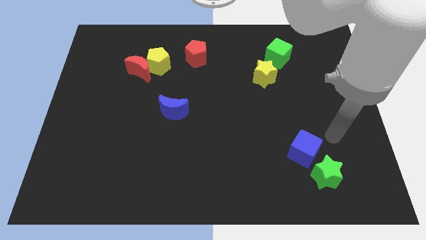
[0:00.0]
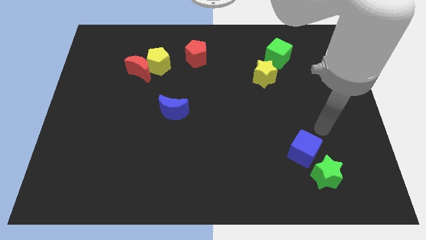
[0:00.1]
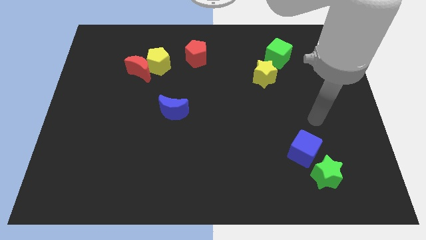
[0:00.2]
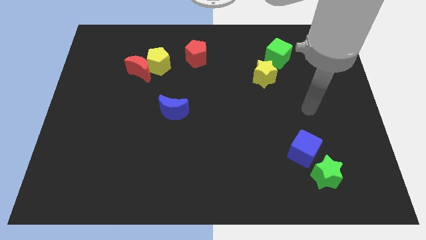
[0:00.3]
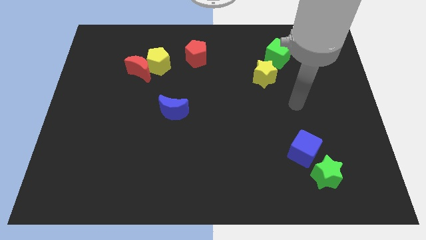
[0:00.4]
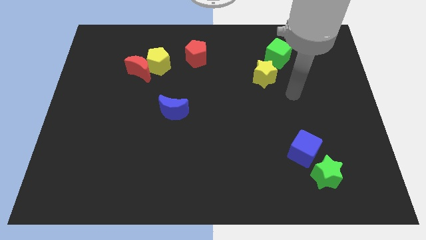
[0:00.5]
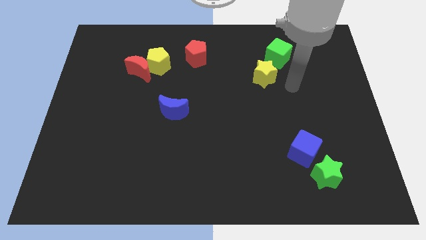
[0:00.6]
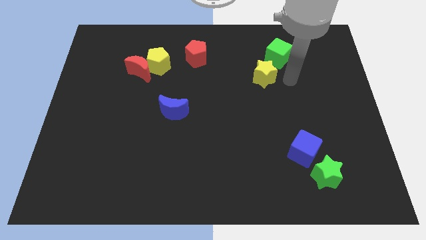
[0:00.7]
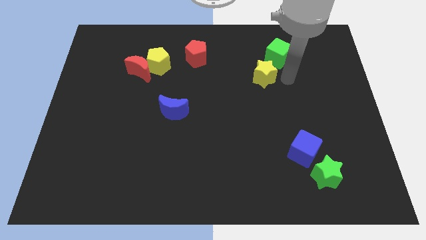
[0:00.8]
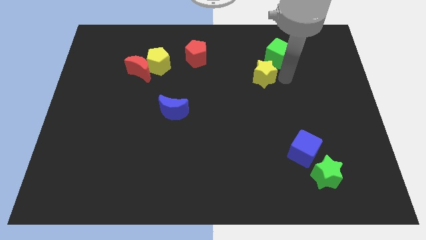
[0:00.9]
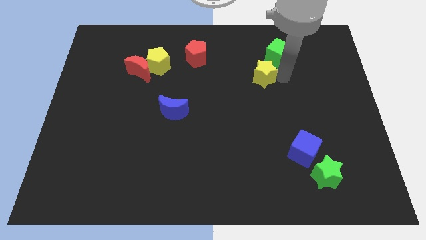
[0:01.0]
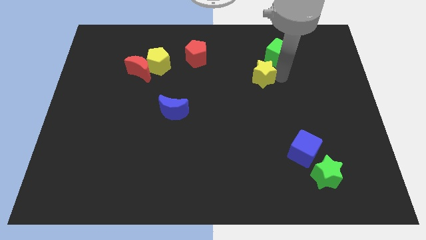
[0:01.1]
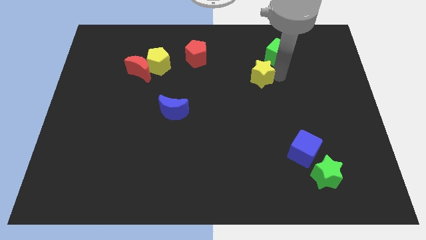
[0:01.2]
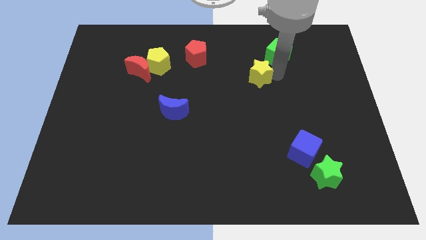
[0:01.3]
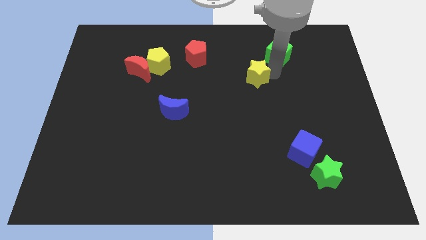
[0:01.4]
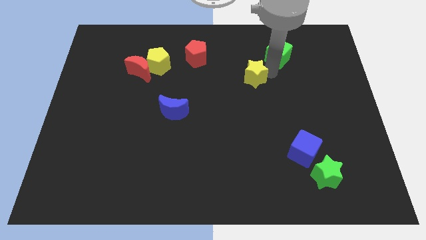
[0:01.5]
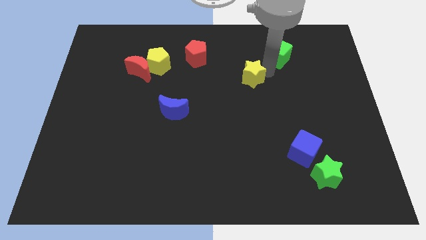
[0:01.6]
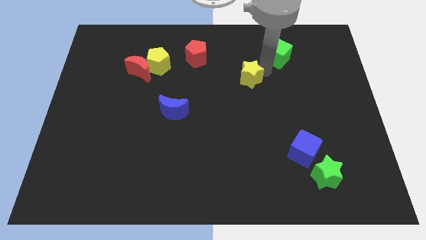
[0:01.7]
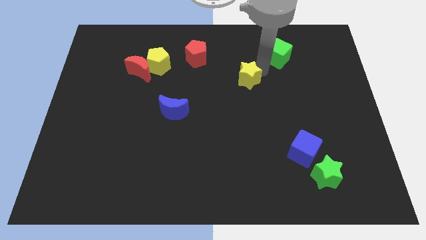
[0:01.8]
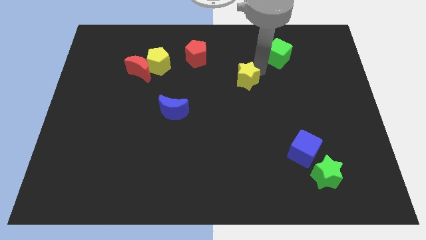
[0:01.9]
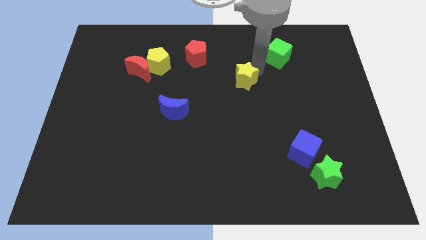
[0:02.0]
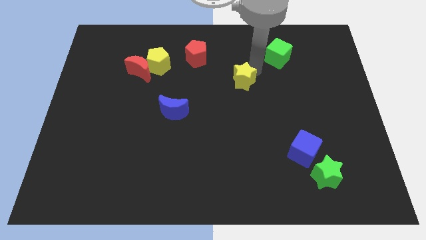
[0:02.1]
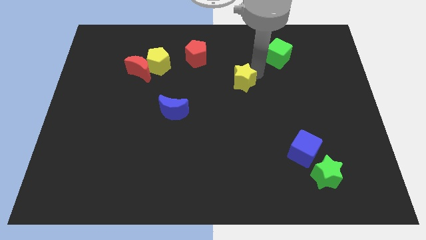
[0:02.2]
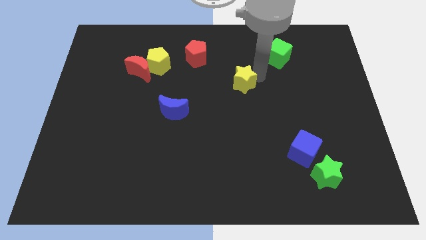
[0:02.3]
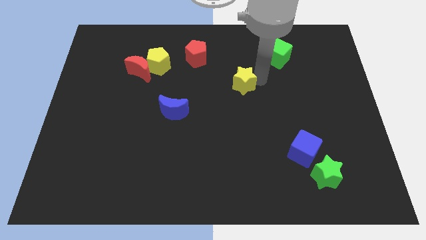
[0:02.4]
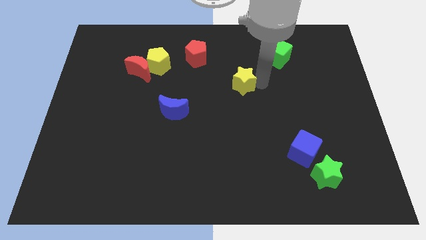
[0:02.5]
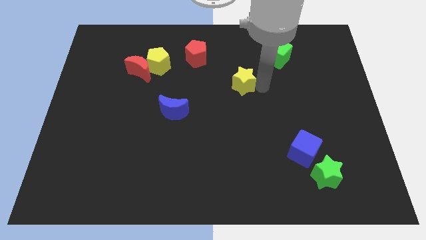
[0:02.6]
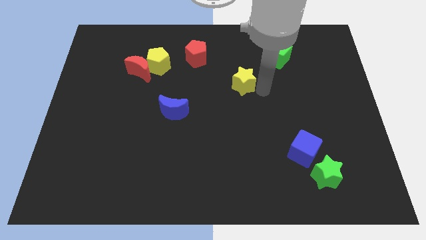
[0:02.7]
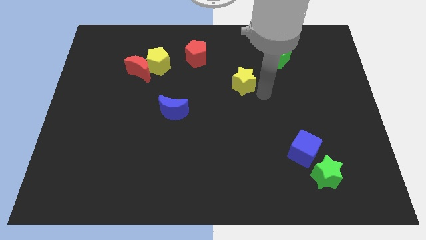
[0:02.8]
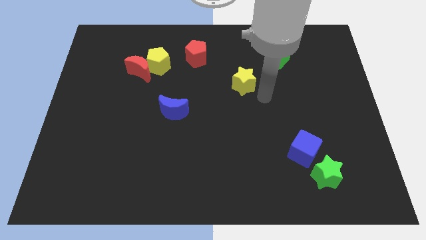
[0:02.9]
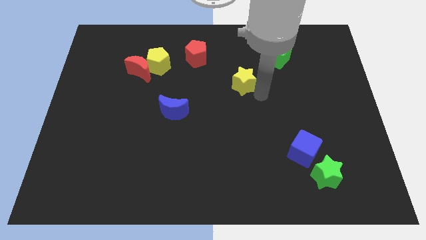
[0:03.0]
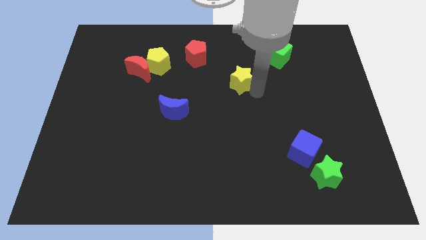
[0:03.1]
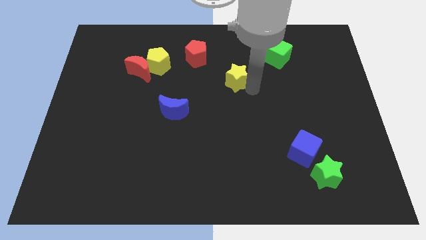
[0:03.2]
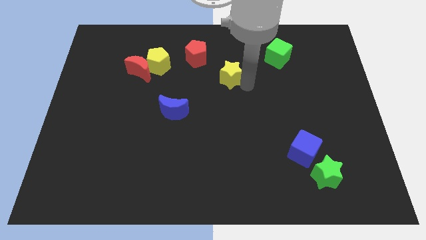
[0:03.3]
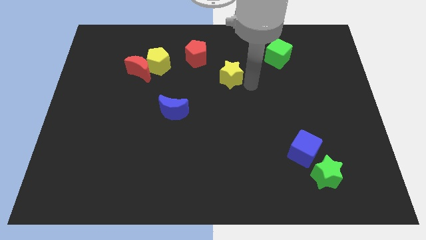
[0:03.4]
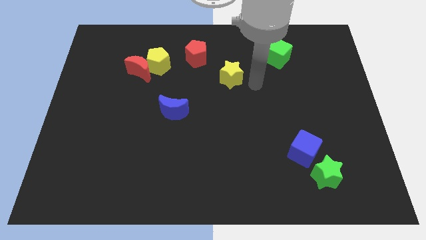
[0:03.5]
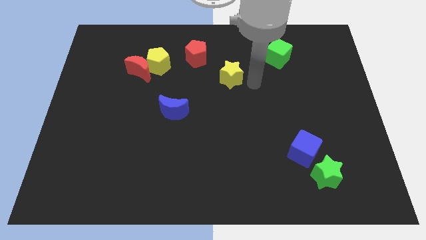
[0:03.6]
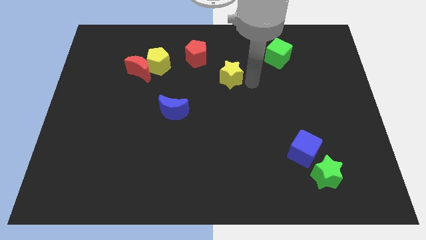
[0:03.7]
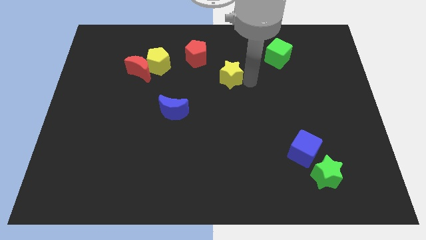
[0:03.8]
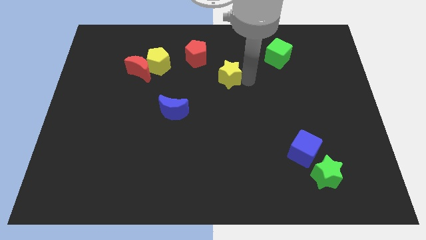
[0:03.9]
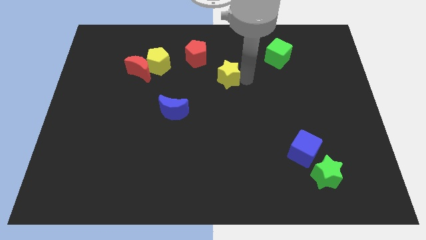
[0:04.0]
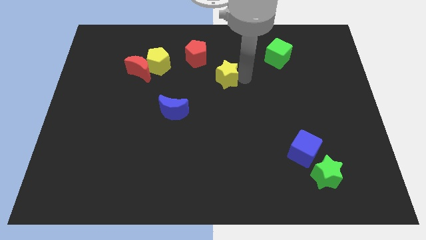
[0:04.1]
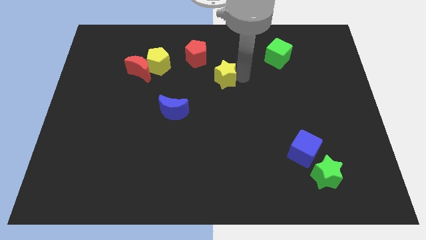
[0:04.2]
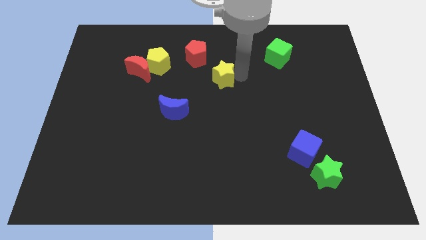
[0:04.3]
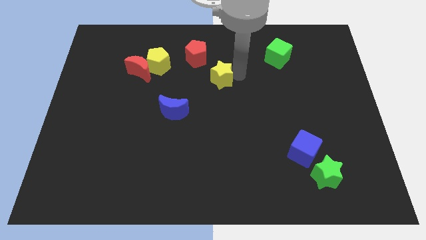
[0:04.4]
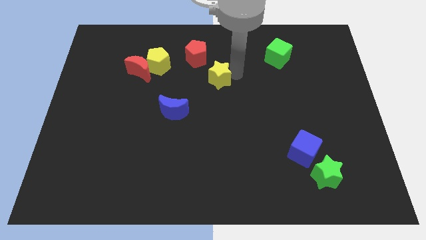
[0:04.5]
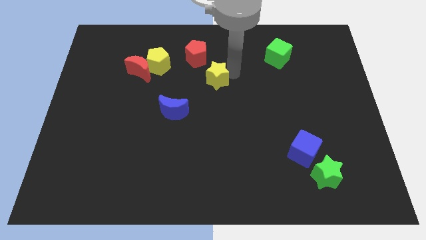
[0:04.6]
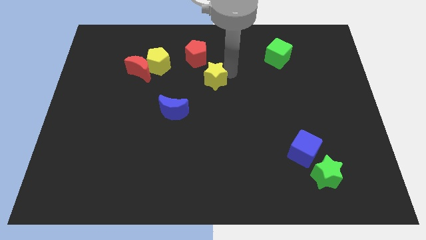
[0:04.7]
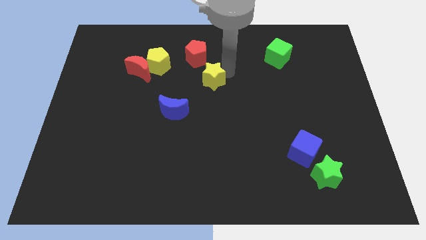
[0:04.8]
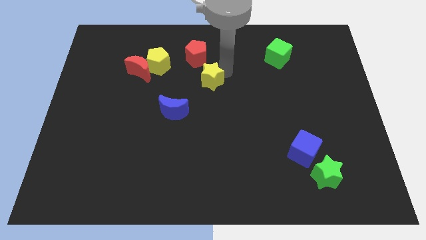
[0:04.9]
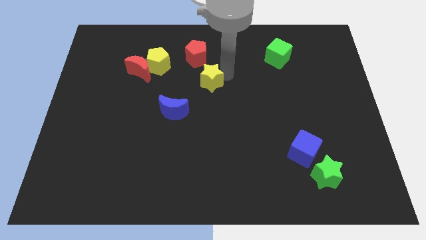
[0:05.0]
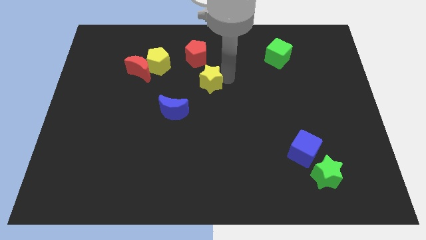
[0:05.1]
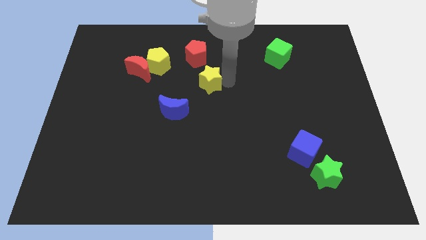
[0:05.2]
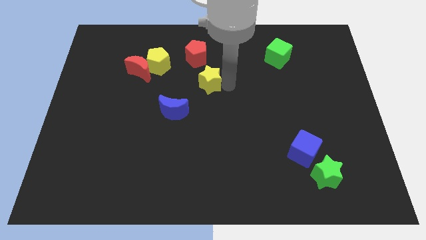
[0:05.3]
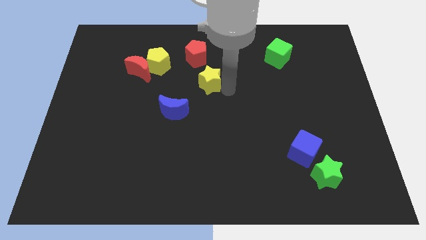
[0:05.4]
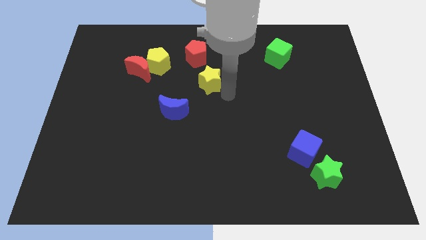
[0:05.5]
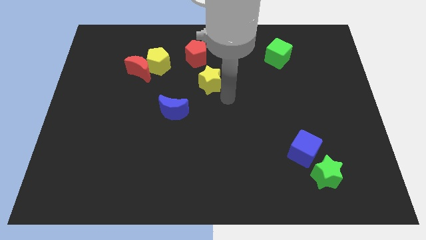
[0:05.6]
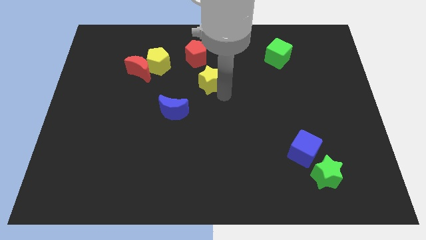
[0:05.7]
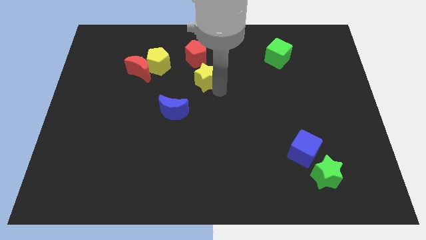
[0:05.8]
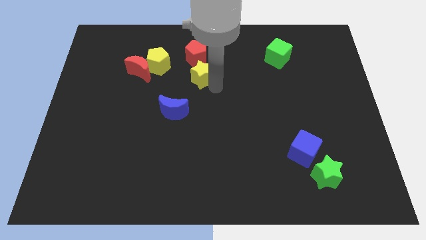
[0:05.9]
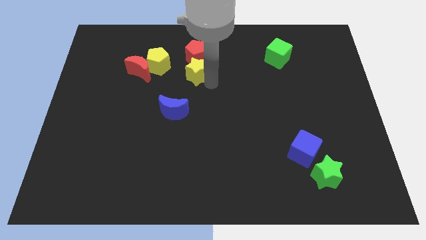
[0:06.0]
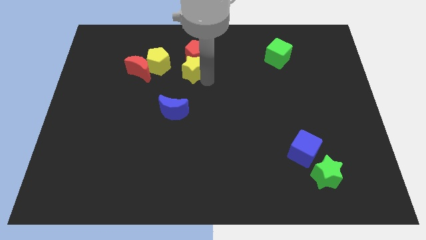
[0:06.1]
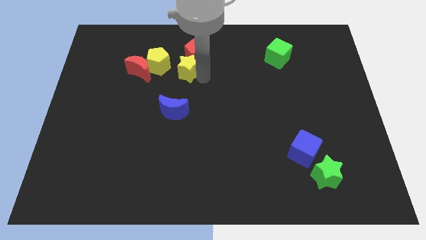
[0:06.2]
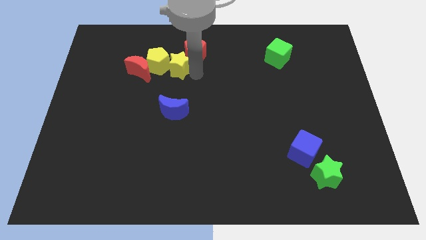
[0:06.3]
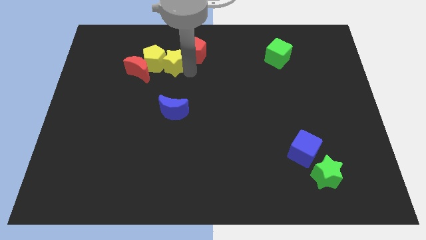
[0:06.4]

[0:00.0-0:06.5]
put the yellow star to the top right of the red moon

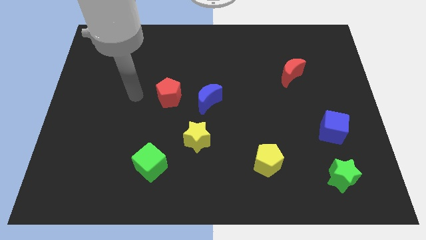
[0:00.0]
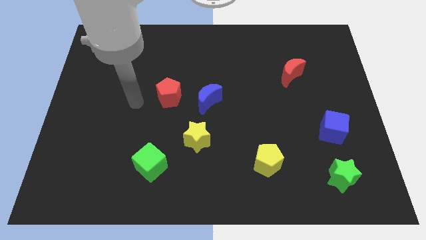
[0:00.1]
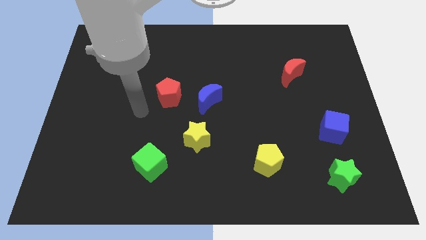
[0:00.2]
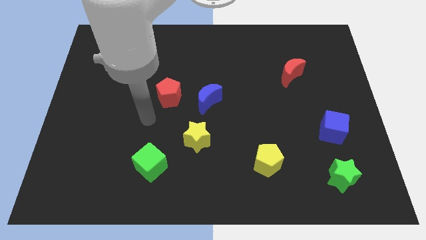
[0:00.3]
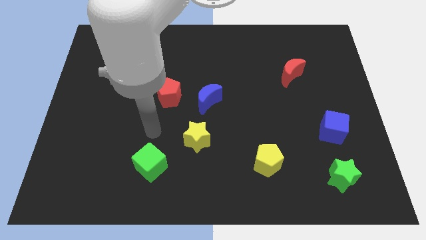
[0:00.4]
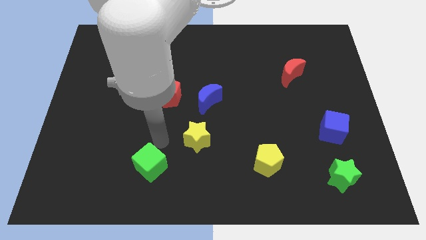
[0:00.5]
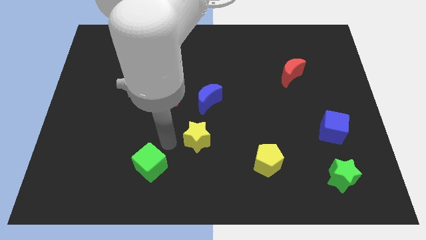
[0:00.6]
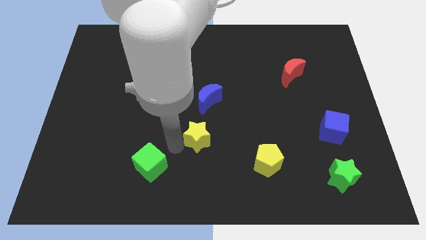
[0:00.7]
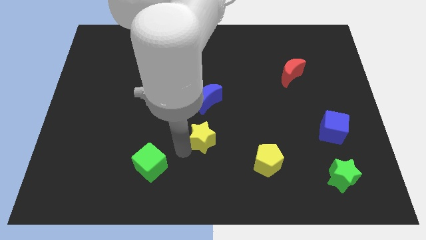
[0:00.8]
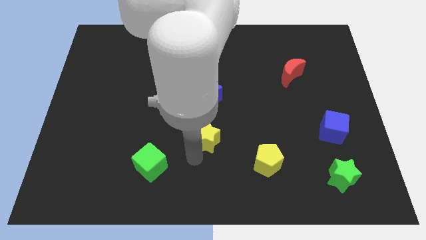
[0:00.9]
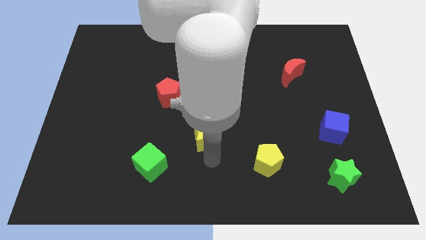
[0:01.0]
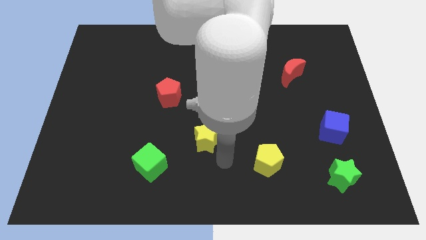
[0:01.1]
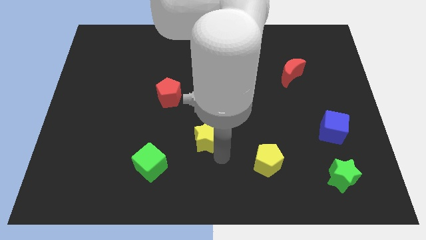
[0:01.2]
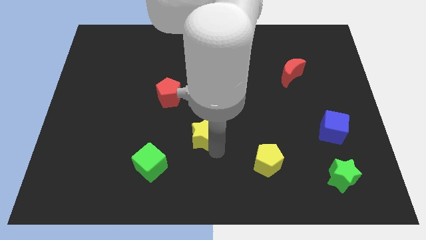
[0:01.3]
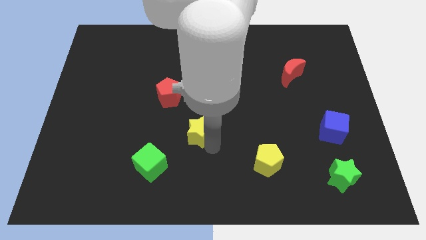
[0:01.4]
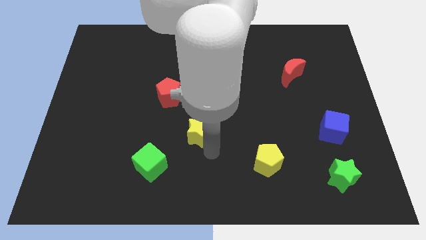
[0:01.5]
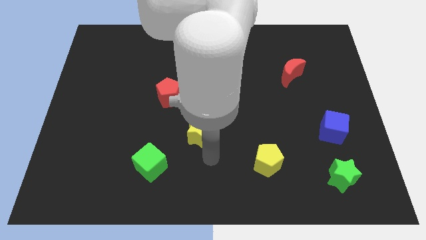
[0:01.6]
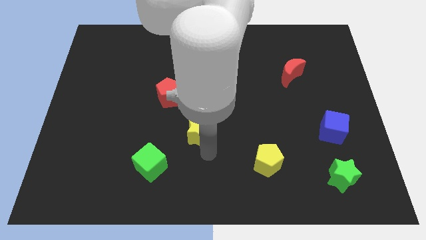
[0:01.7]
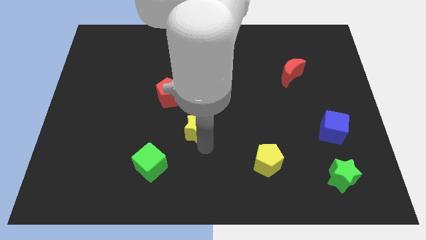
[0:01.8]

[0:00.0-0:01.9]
put the yellow star to the bottom right side of the red pentagon
